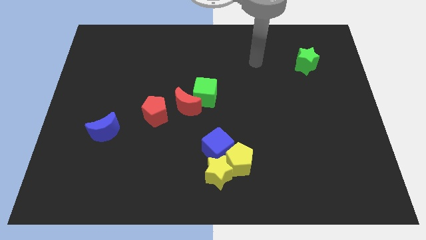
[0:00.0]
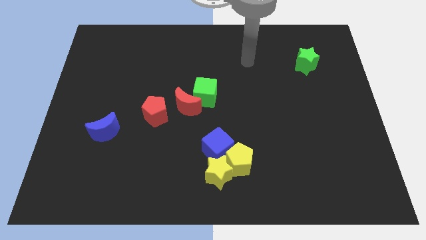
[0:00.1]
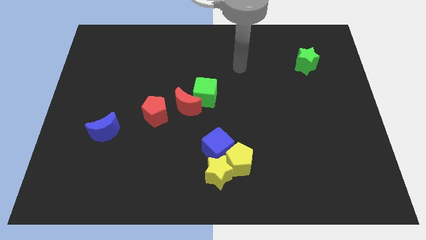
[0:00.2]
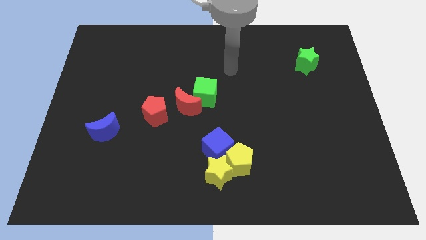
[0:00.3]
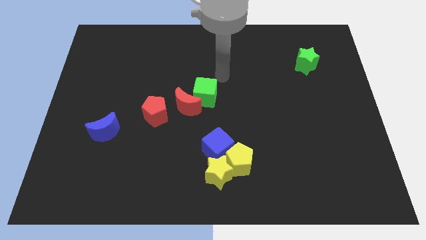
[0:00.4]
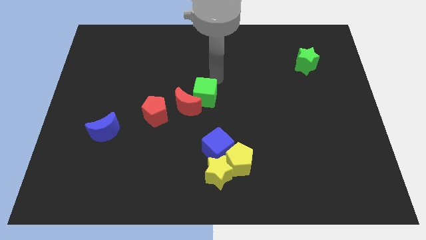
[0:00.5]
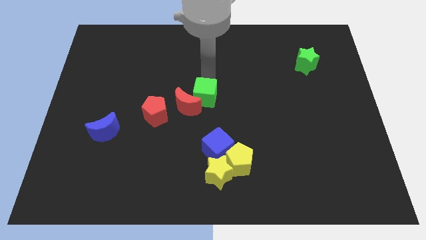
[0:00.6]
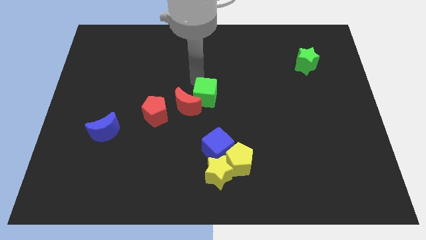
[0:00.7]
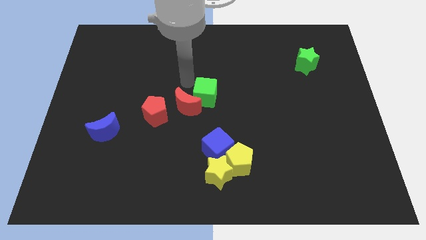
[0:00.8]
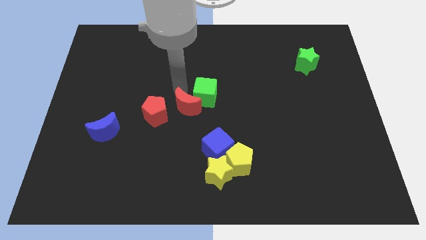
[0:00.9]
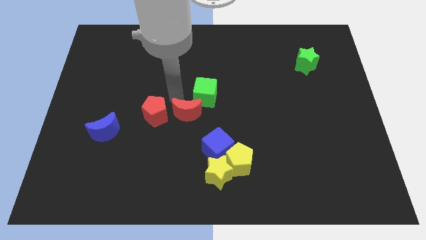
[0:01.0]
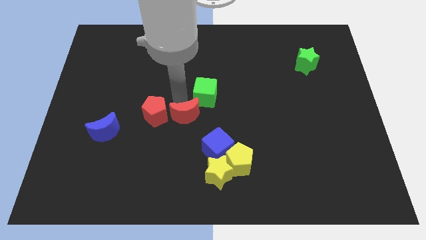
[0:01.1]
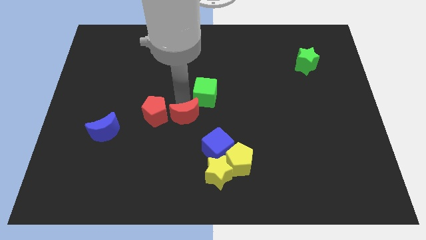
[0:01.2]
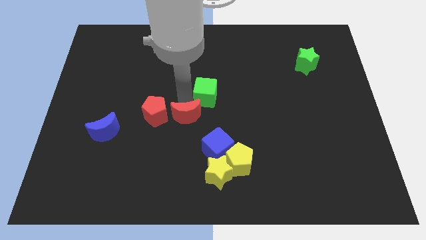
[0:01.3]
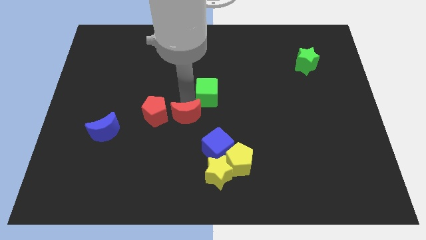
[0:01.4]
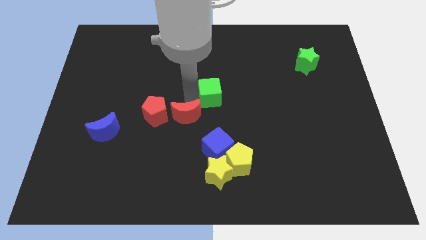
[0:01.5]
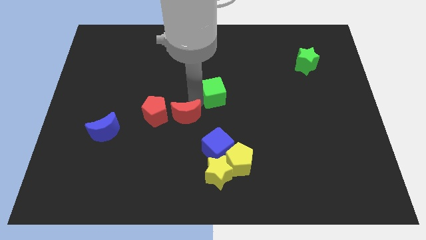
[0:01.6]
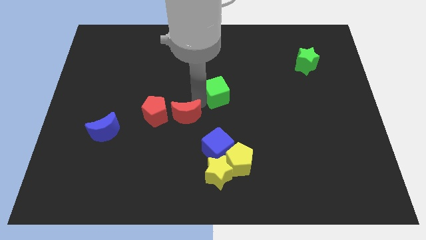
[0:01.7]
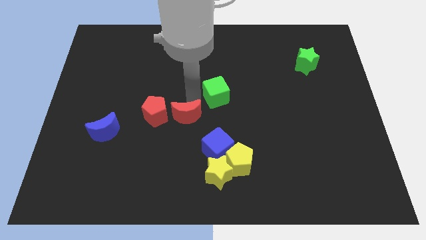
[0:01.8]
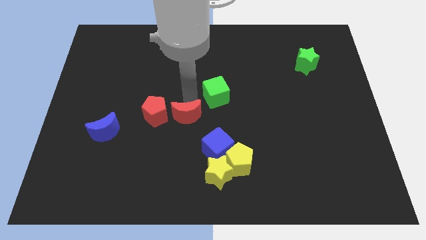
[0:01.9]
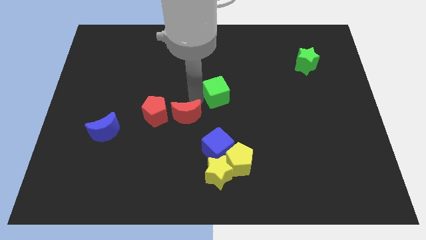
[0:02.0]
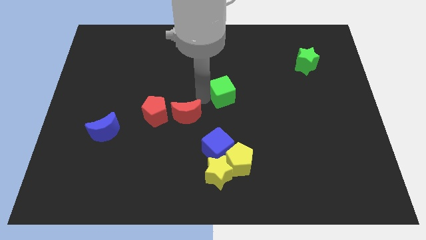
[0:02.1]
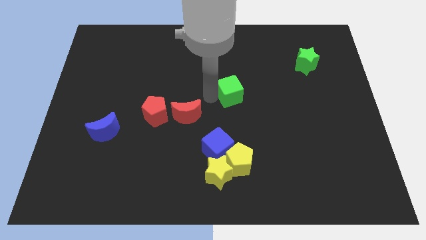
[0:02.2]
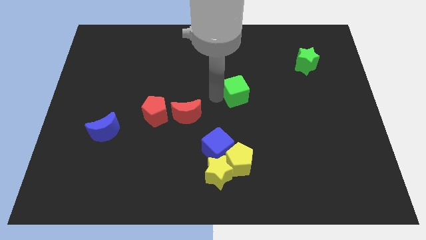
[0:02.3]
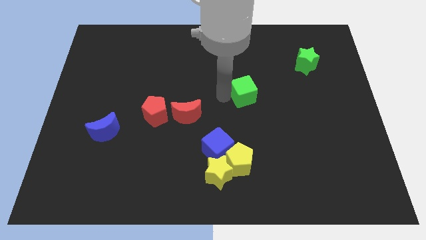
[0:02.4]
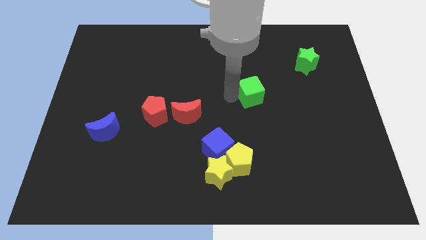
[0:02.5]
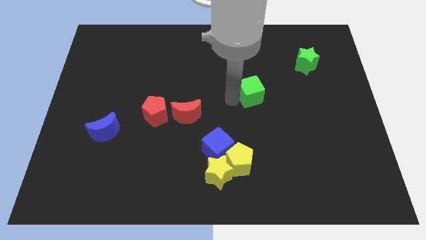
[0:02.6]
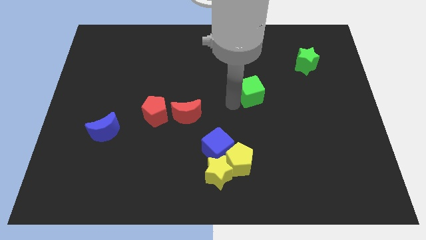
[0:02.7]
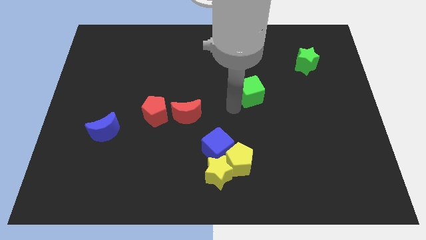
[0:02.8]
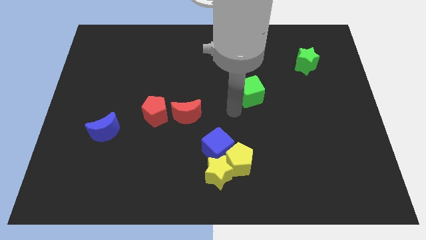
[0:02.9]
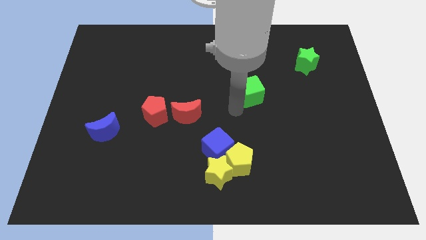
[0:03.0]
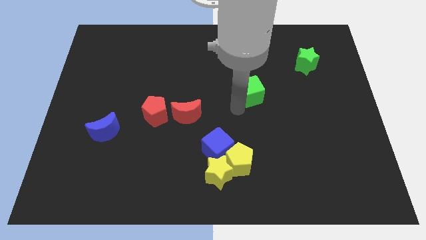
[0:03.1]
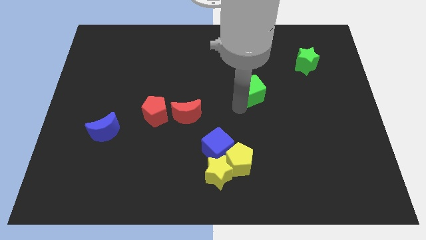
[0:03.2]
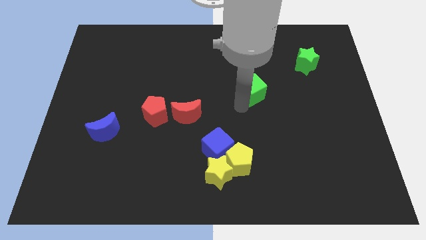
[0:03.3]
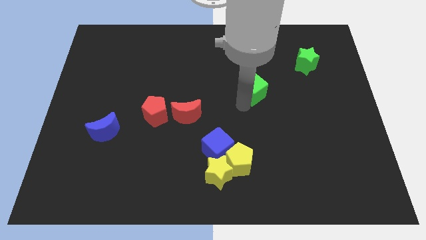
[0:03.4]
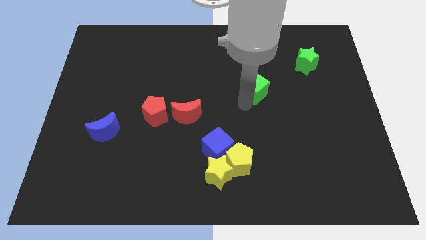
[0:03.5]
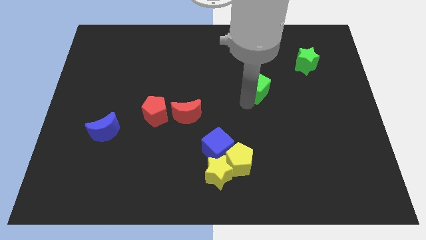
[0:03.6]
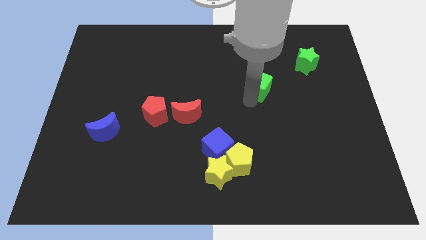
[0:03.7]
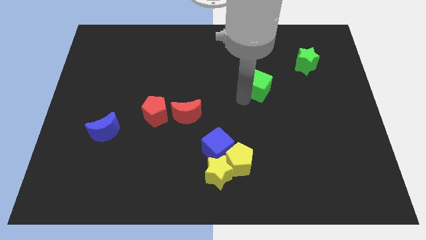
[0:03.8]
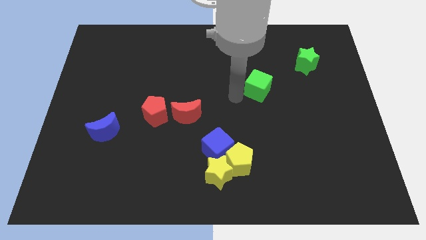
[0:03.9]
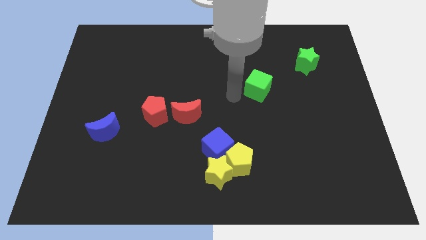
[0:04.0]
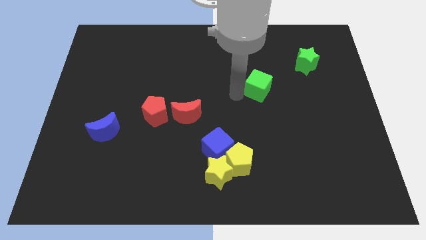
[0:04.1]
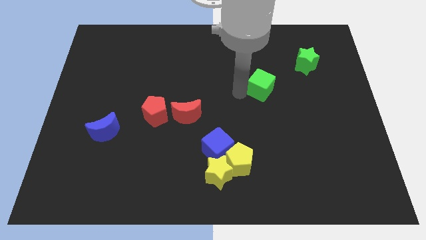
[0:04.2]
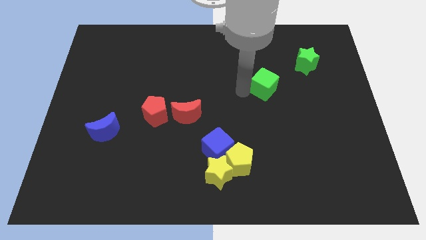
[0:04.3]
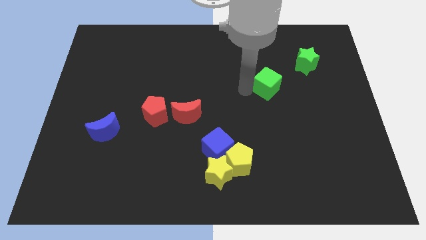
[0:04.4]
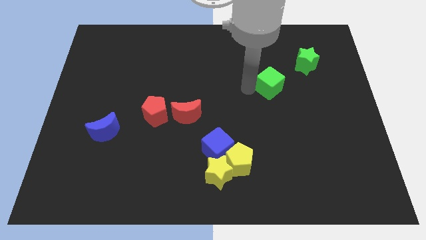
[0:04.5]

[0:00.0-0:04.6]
move the green cube diagonally down and to the left of the green star

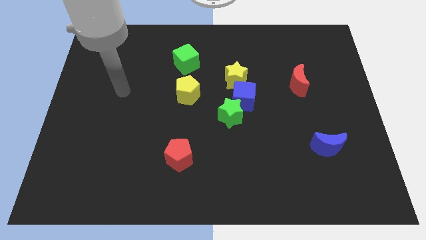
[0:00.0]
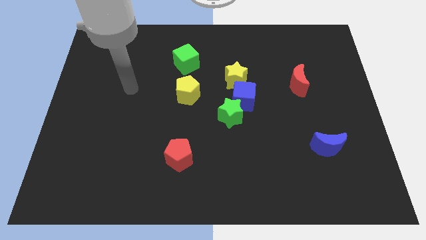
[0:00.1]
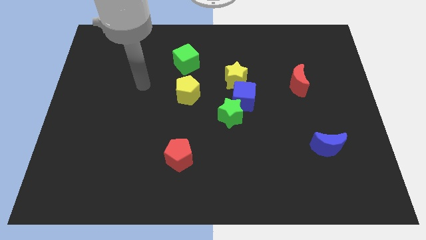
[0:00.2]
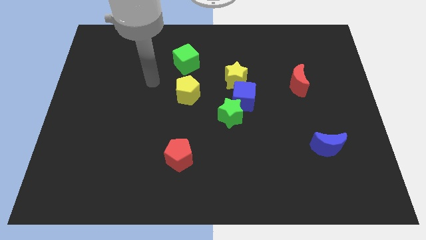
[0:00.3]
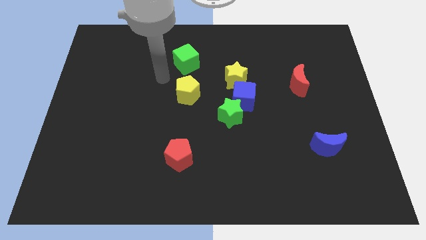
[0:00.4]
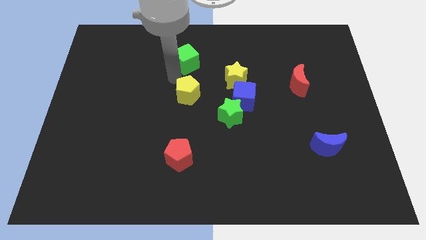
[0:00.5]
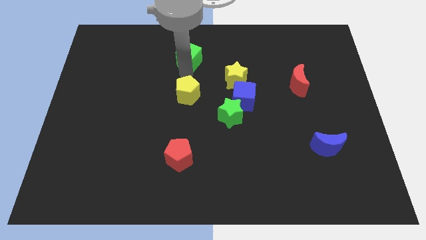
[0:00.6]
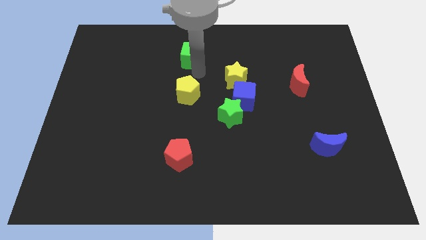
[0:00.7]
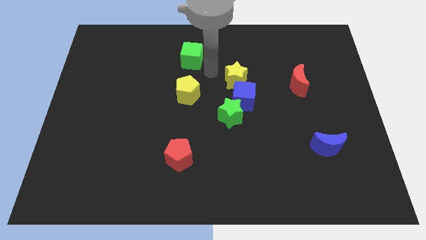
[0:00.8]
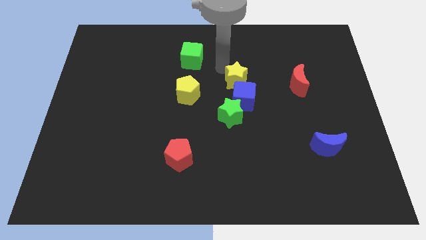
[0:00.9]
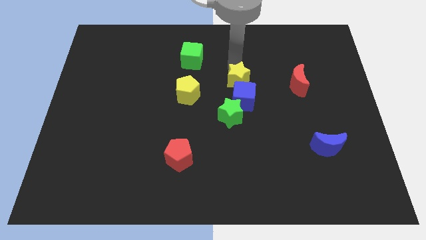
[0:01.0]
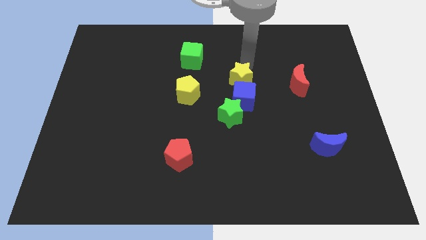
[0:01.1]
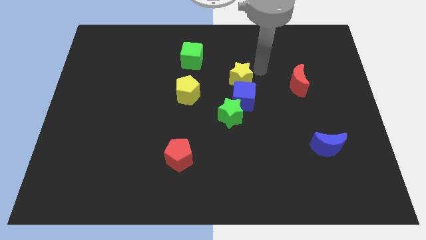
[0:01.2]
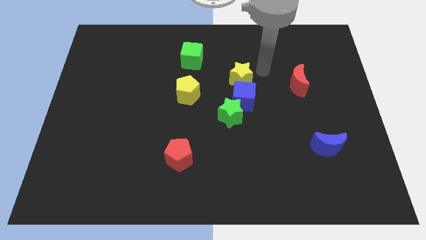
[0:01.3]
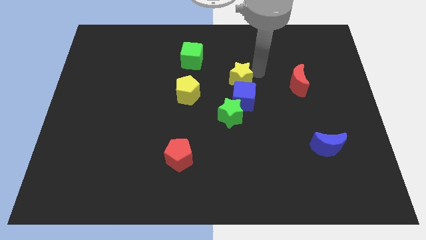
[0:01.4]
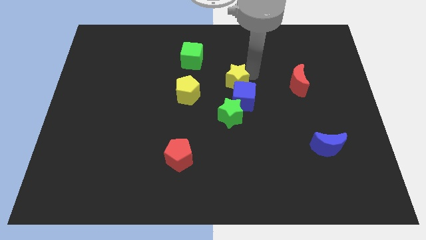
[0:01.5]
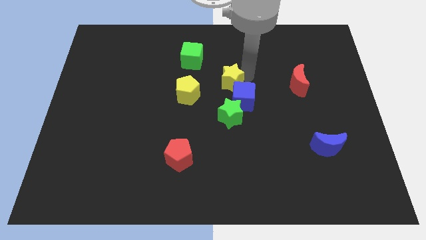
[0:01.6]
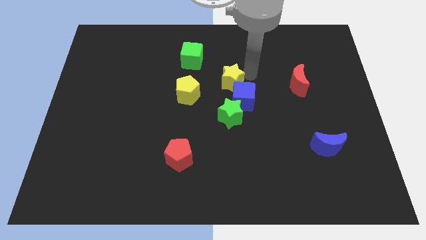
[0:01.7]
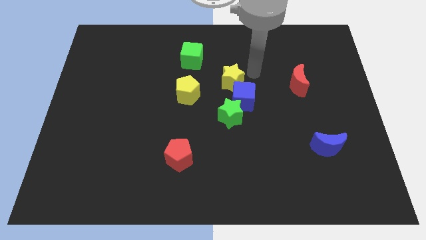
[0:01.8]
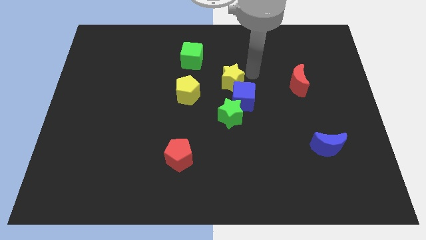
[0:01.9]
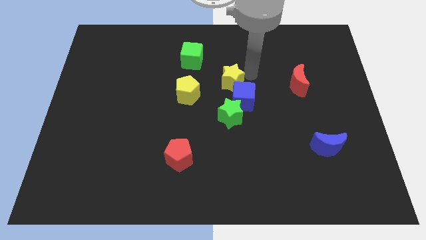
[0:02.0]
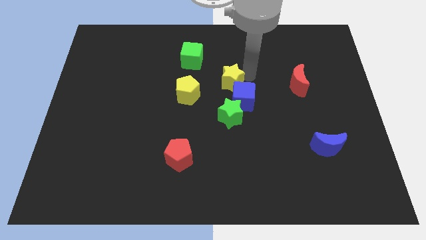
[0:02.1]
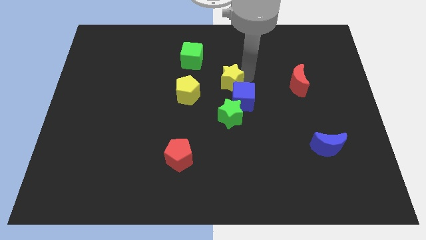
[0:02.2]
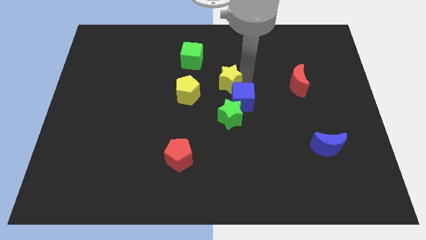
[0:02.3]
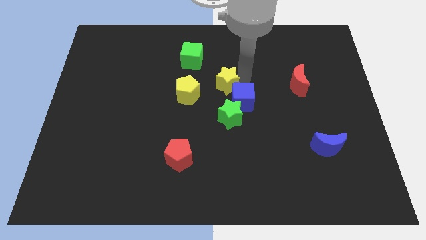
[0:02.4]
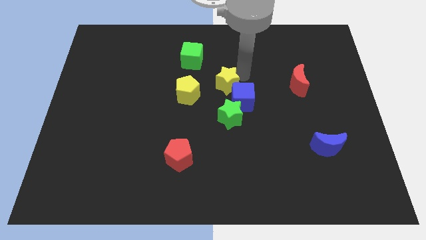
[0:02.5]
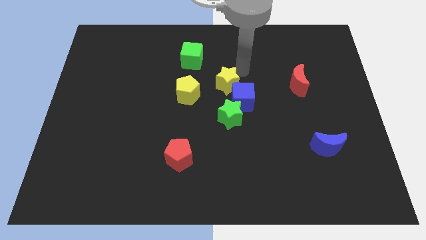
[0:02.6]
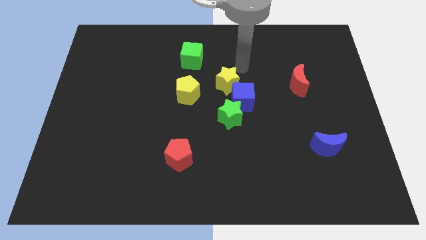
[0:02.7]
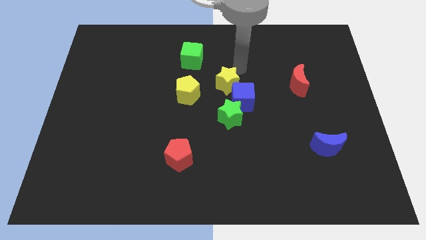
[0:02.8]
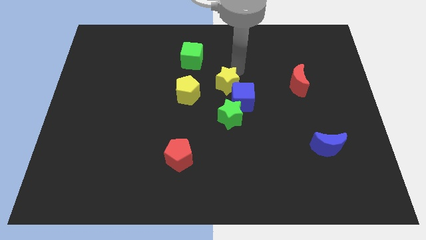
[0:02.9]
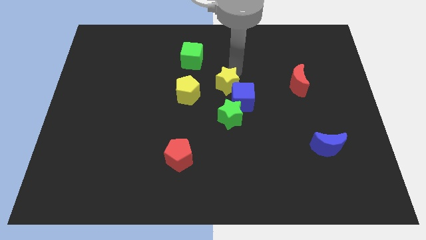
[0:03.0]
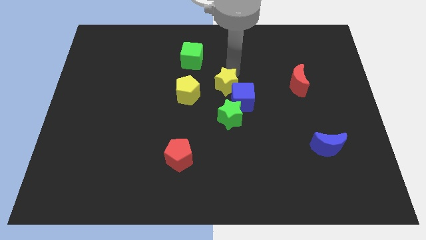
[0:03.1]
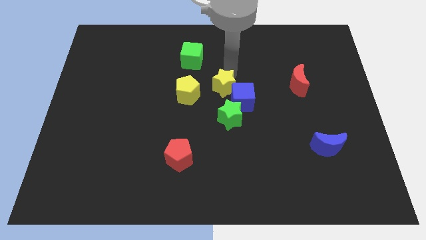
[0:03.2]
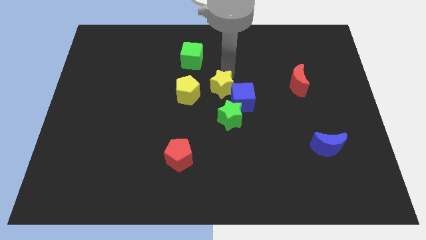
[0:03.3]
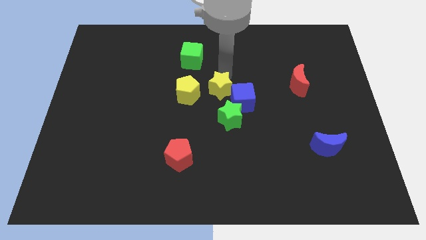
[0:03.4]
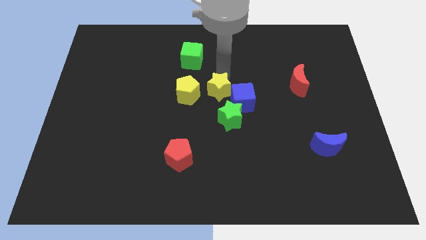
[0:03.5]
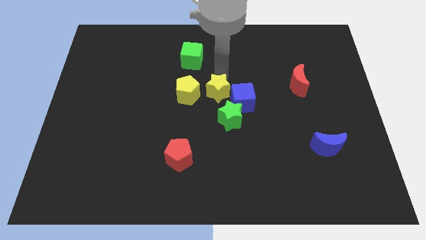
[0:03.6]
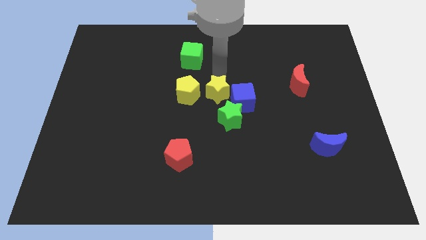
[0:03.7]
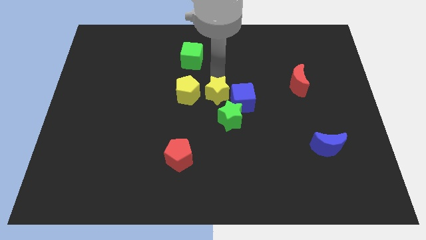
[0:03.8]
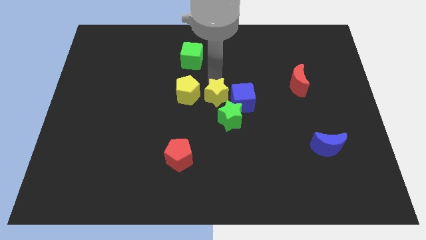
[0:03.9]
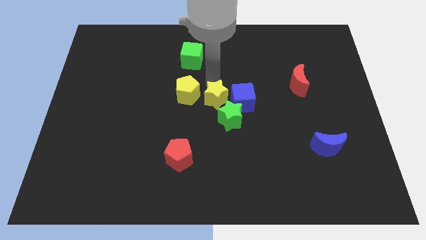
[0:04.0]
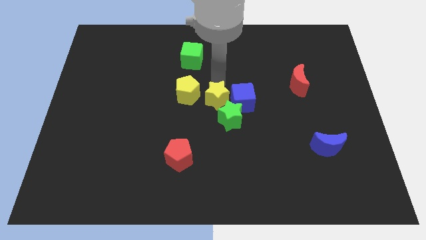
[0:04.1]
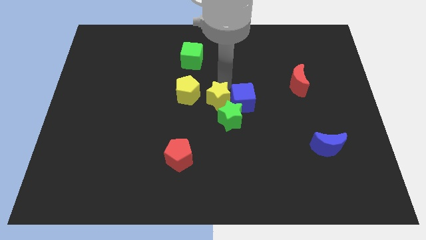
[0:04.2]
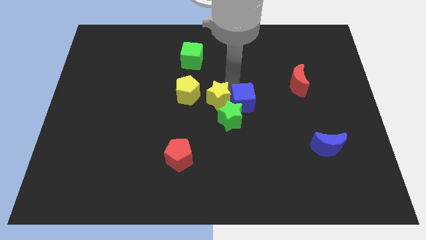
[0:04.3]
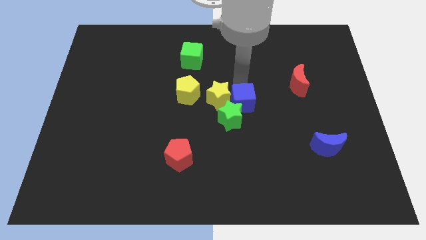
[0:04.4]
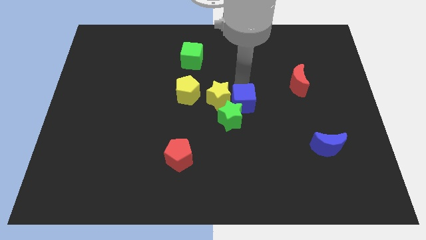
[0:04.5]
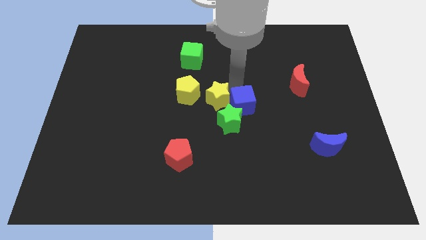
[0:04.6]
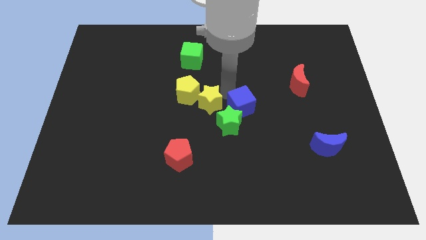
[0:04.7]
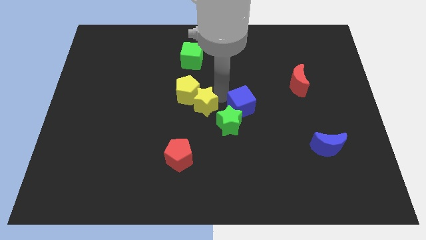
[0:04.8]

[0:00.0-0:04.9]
push the yellow star below the green cube
